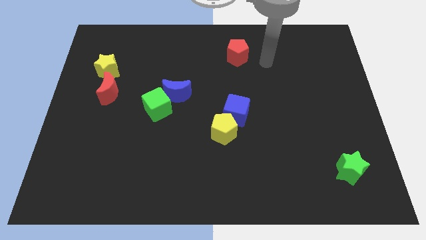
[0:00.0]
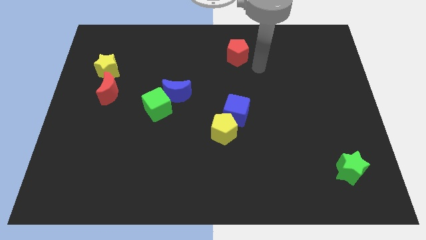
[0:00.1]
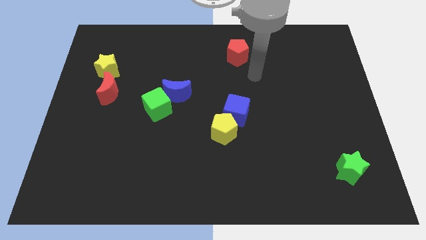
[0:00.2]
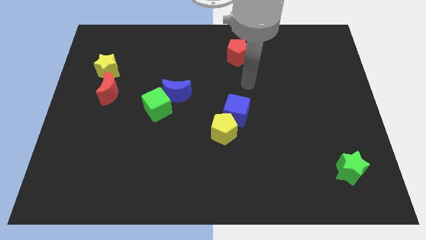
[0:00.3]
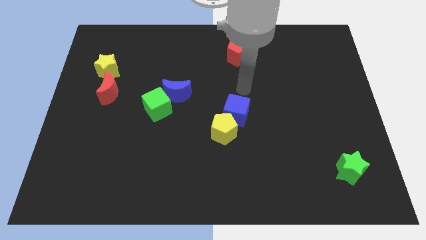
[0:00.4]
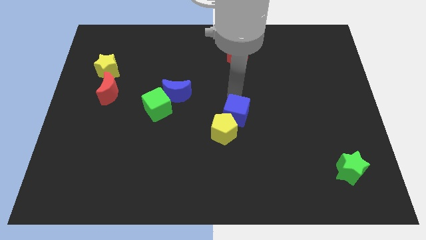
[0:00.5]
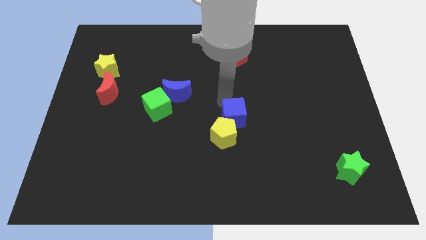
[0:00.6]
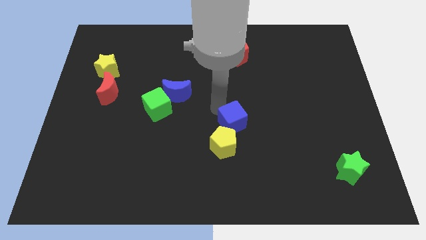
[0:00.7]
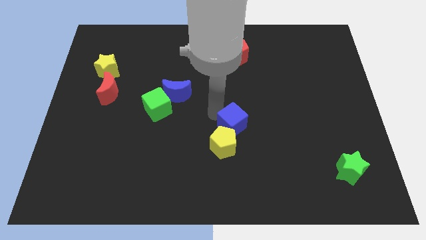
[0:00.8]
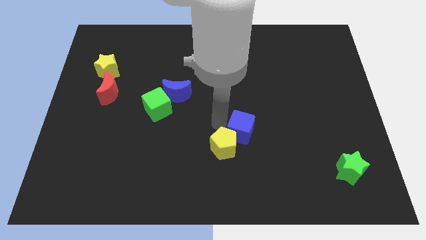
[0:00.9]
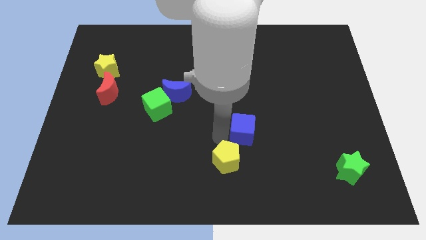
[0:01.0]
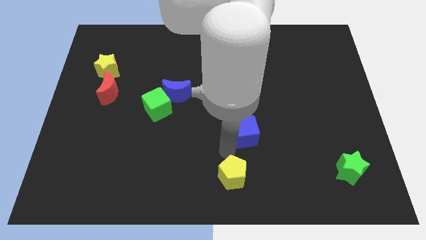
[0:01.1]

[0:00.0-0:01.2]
pull the blue cube apart from the yellow pentagon

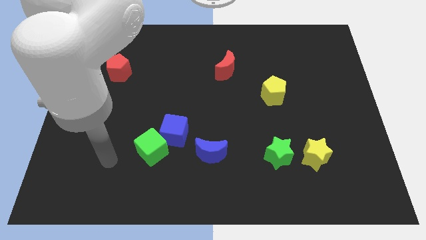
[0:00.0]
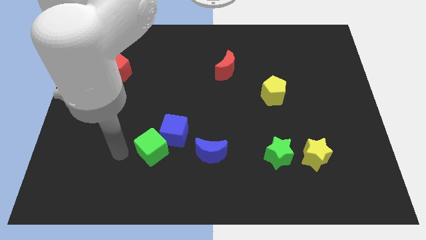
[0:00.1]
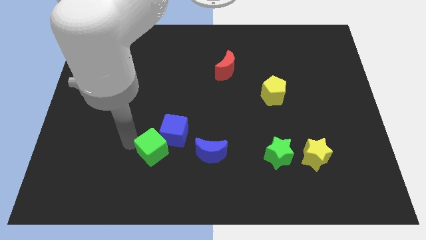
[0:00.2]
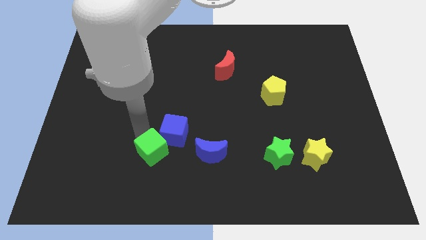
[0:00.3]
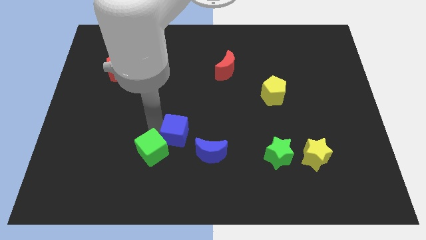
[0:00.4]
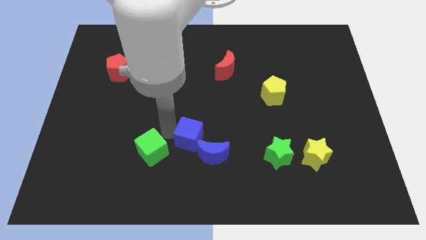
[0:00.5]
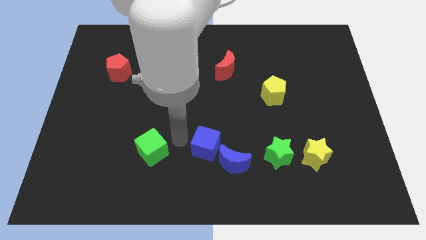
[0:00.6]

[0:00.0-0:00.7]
pull the green cube apart from the blue cube

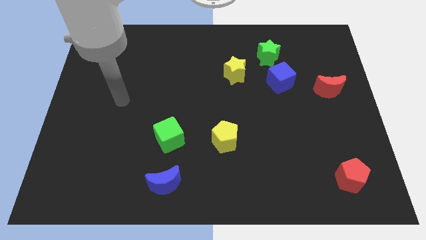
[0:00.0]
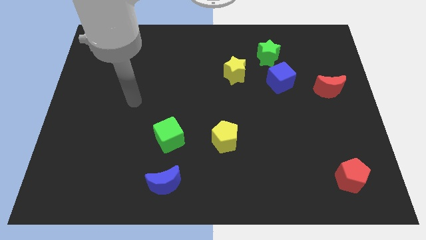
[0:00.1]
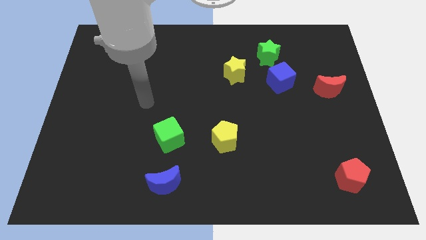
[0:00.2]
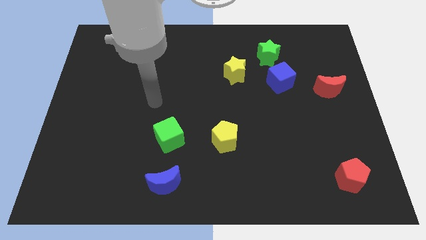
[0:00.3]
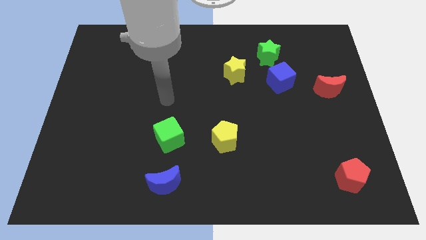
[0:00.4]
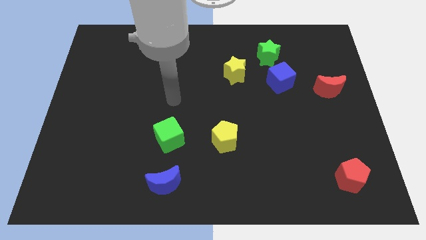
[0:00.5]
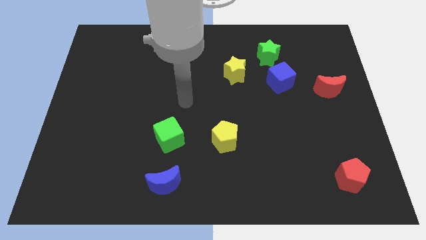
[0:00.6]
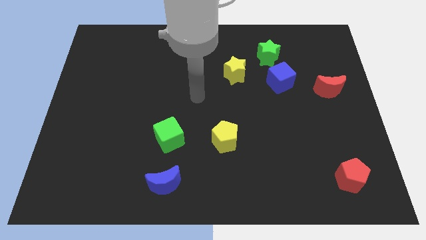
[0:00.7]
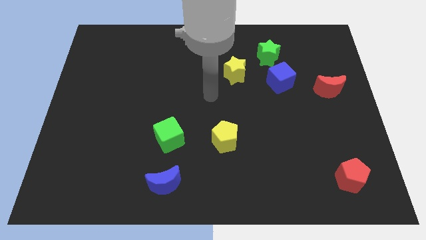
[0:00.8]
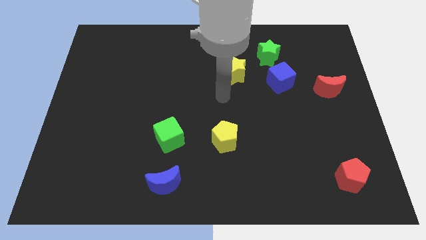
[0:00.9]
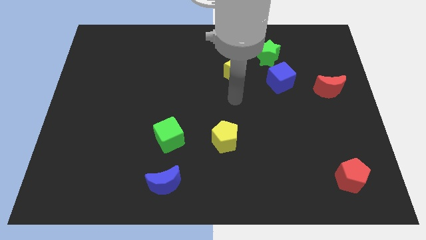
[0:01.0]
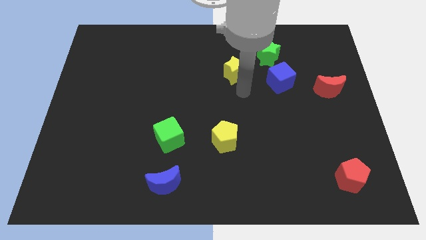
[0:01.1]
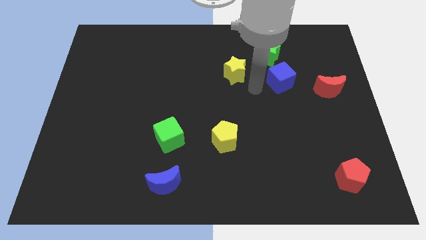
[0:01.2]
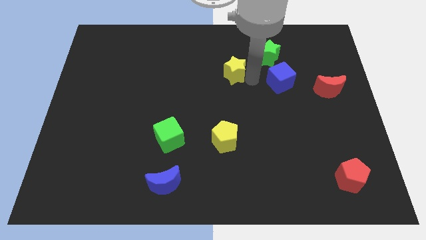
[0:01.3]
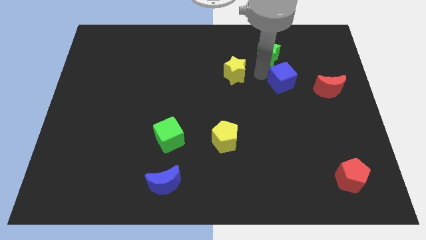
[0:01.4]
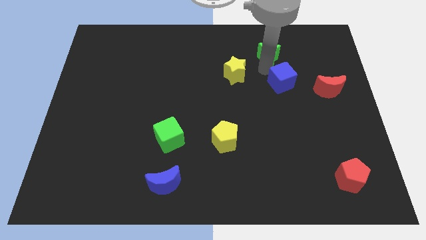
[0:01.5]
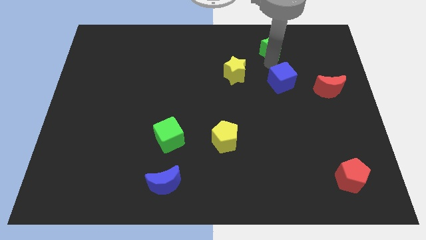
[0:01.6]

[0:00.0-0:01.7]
pull the blue cube apart from the green star

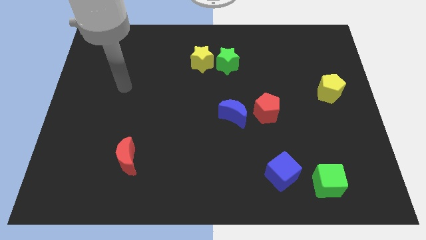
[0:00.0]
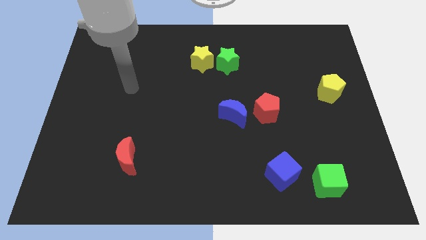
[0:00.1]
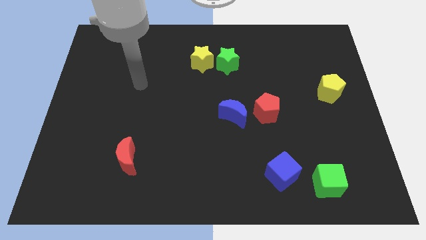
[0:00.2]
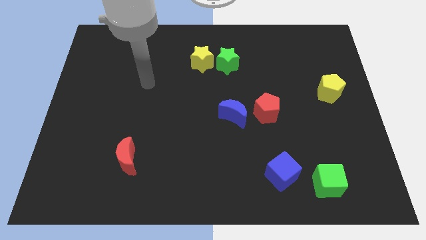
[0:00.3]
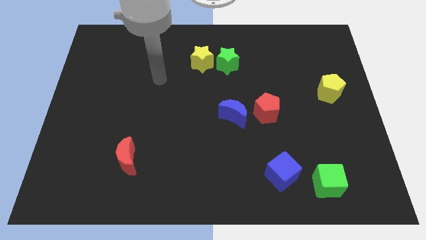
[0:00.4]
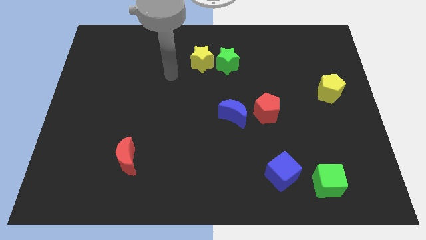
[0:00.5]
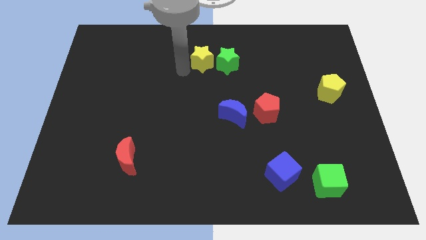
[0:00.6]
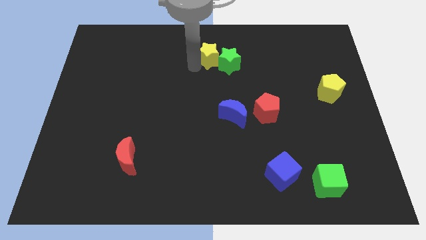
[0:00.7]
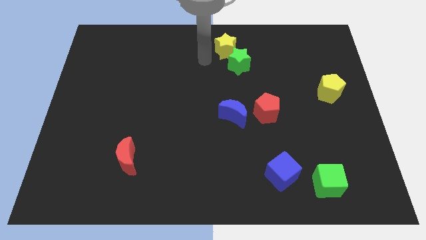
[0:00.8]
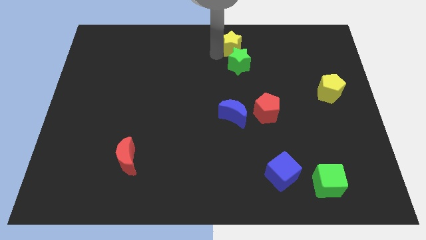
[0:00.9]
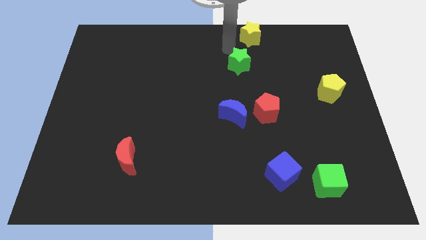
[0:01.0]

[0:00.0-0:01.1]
pull the green star apart from the yellow star

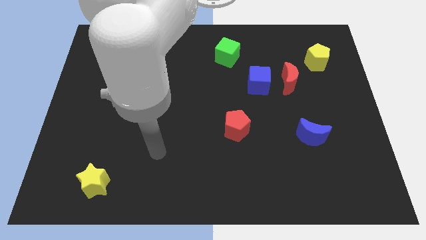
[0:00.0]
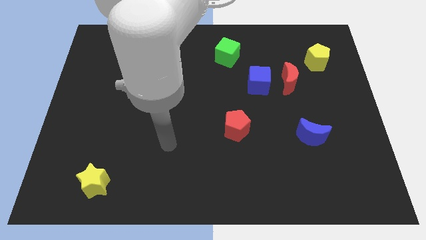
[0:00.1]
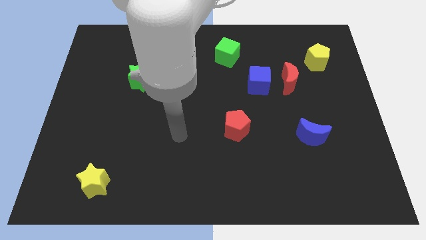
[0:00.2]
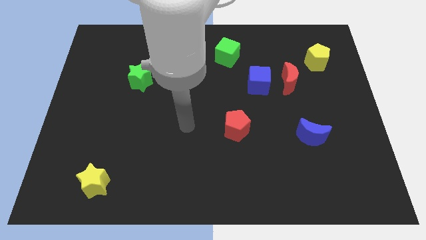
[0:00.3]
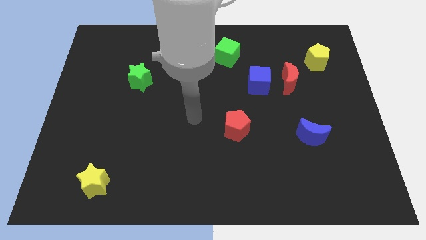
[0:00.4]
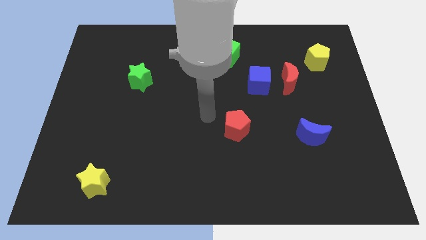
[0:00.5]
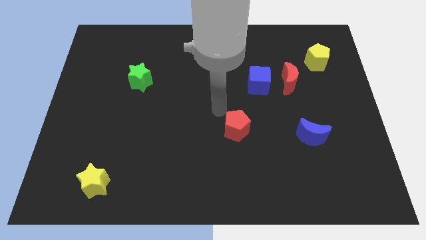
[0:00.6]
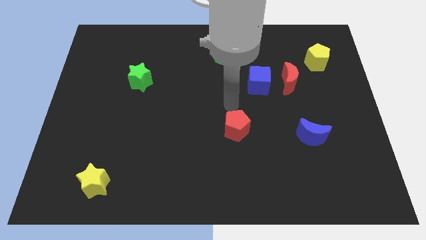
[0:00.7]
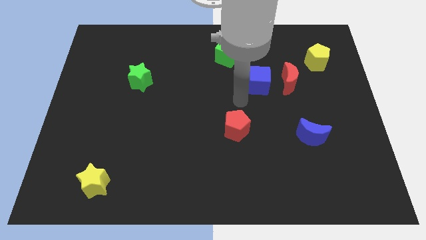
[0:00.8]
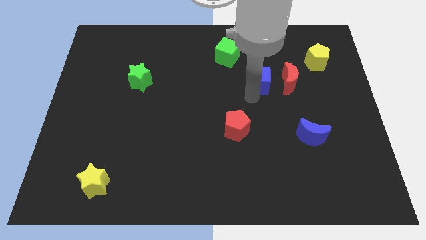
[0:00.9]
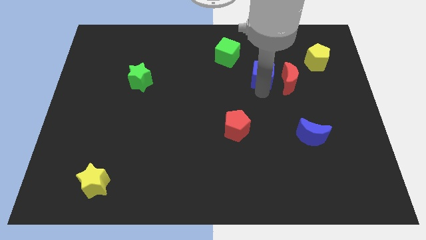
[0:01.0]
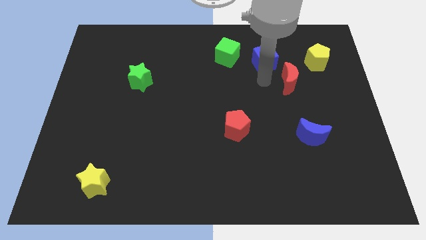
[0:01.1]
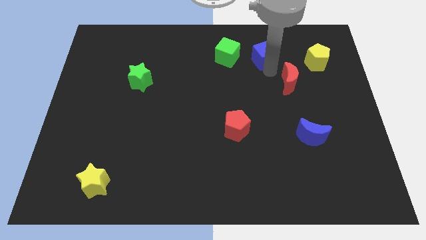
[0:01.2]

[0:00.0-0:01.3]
pull the red moon apart from the blue cube

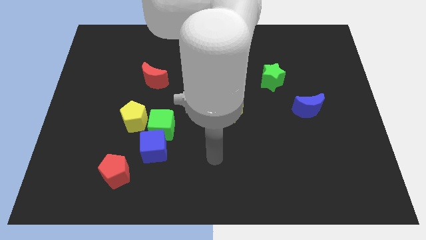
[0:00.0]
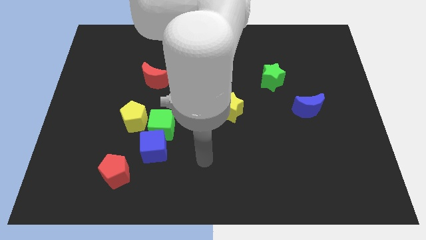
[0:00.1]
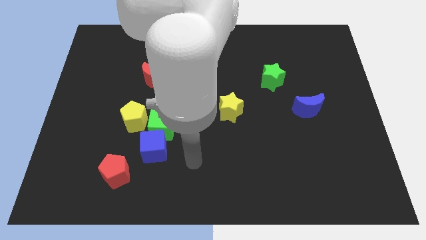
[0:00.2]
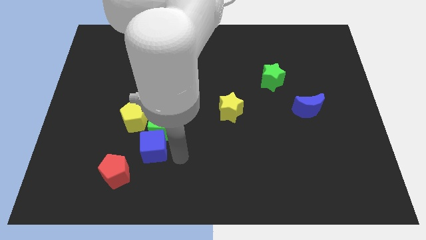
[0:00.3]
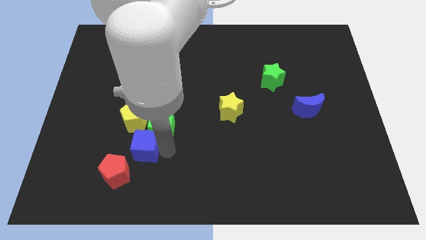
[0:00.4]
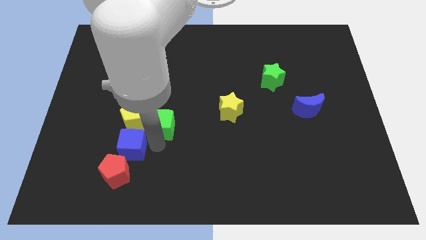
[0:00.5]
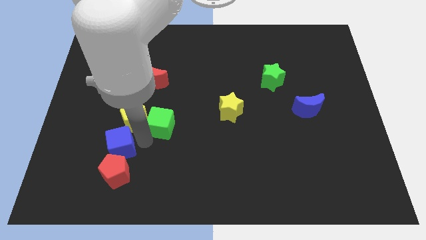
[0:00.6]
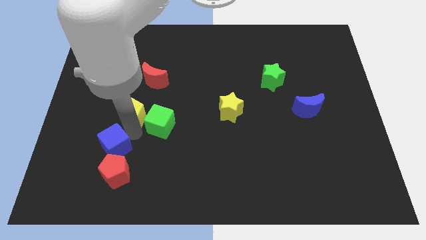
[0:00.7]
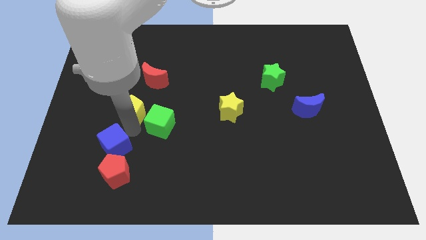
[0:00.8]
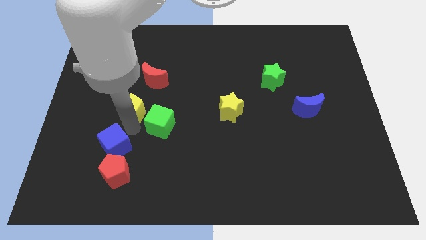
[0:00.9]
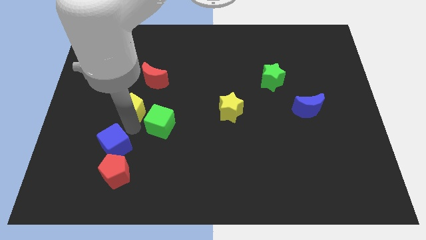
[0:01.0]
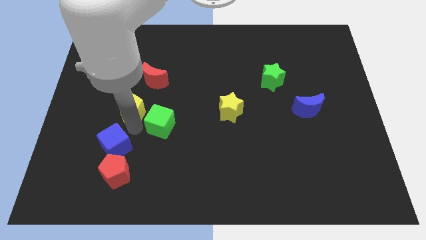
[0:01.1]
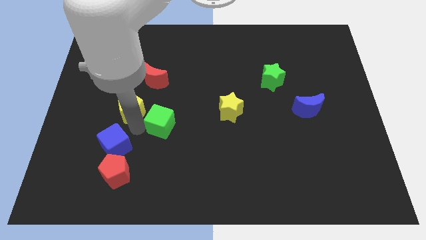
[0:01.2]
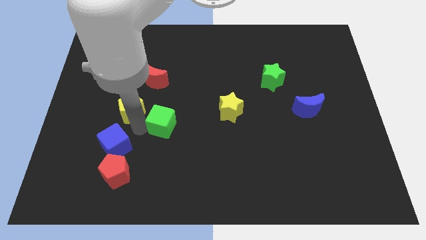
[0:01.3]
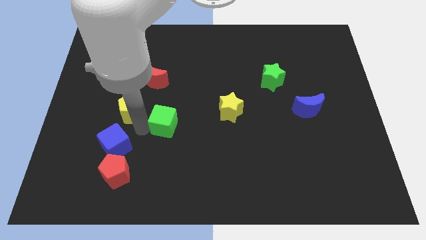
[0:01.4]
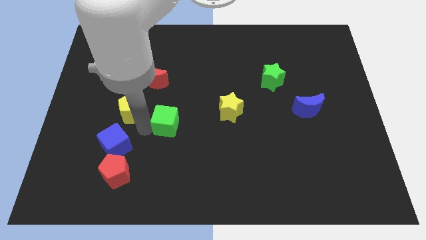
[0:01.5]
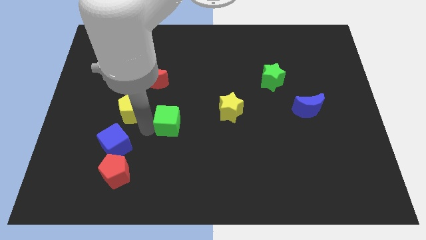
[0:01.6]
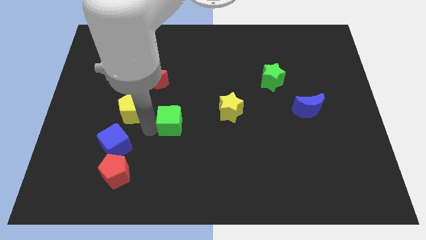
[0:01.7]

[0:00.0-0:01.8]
move the green cube away from the blue cube and yellow pentagon

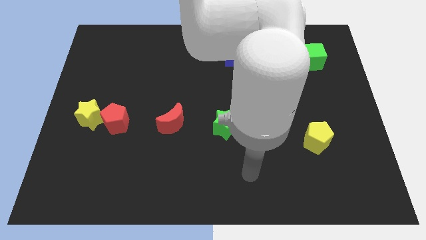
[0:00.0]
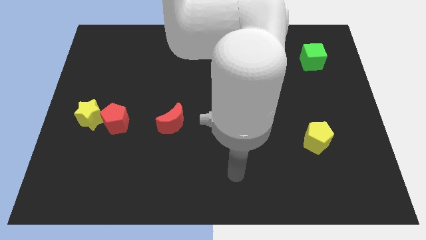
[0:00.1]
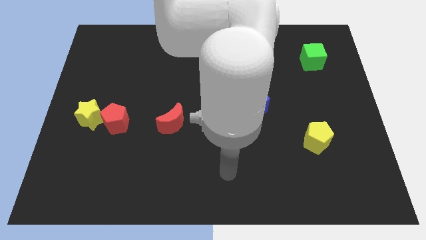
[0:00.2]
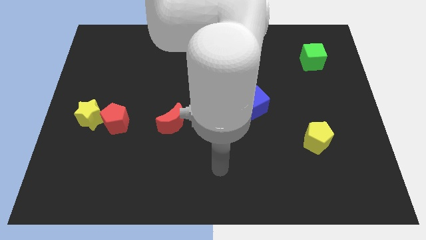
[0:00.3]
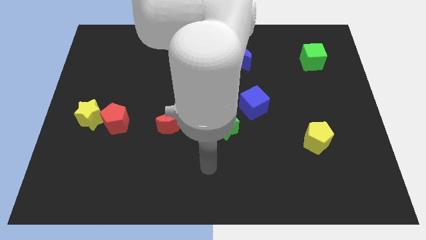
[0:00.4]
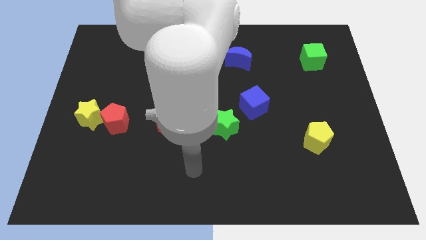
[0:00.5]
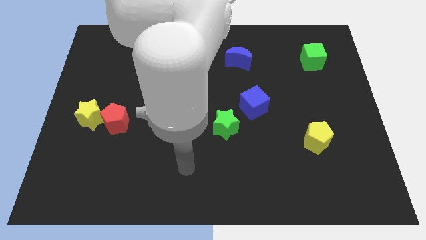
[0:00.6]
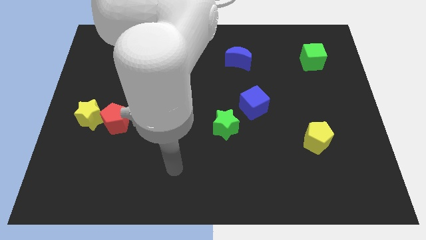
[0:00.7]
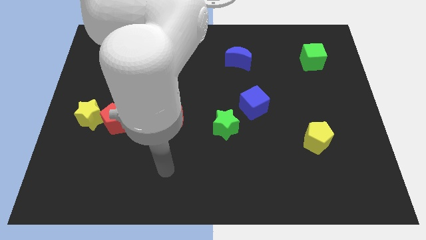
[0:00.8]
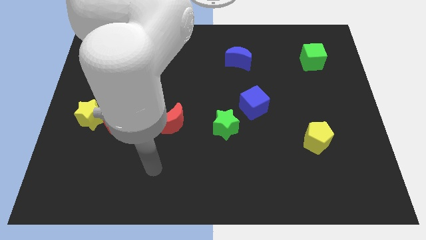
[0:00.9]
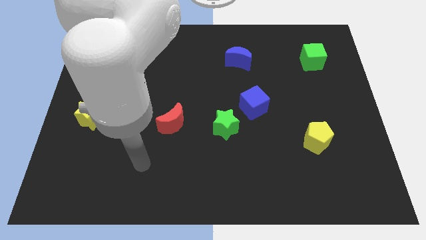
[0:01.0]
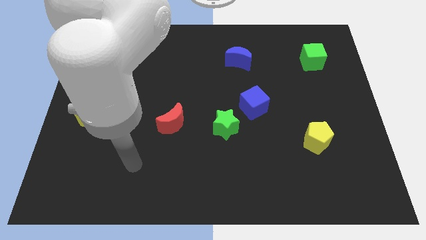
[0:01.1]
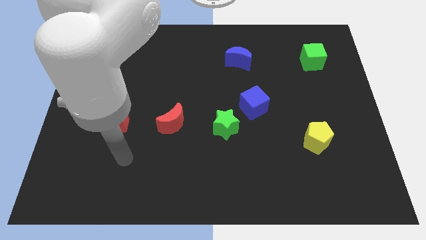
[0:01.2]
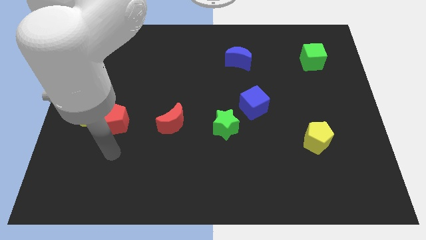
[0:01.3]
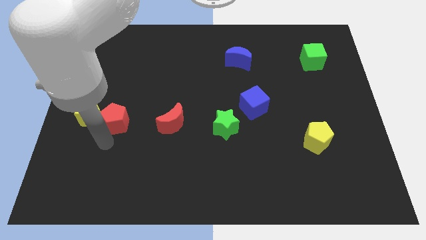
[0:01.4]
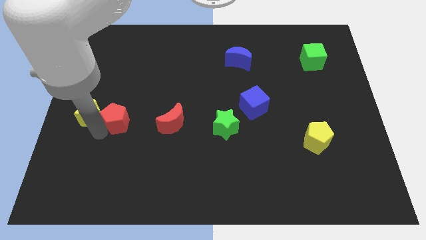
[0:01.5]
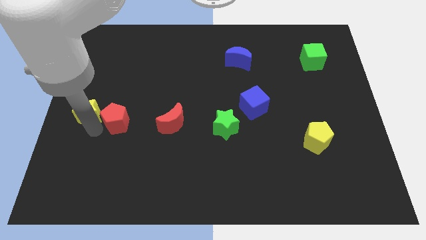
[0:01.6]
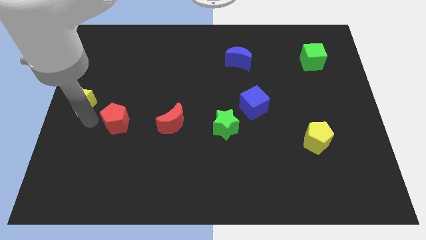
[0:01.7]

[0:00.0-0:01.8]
pull the red pentagon apart from the yellow star
